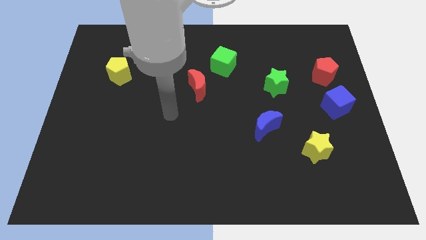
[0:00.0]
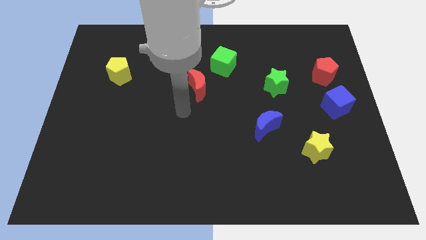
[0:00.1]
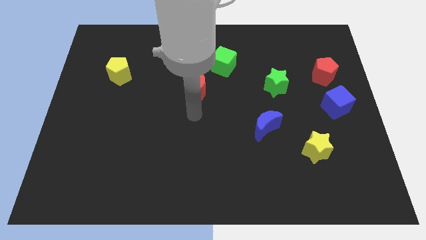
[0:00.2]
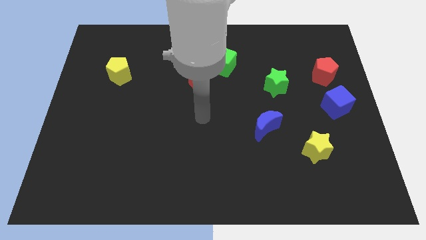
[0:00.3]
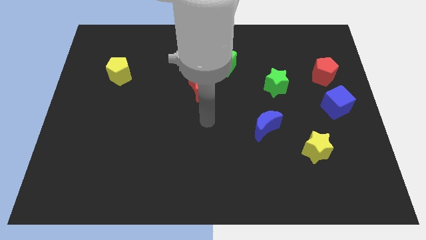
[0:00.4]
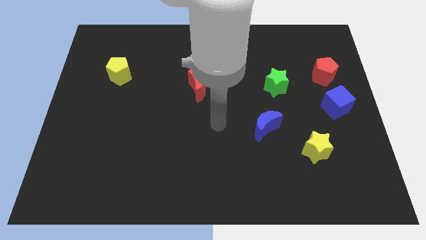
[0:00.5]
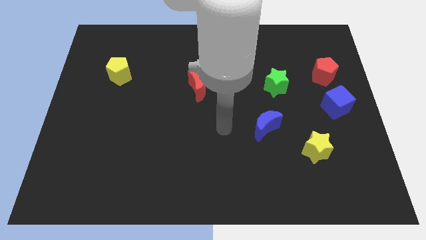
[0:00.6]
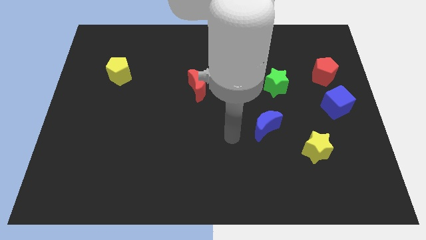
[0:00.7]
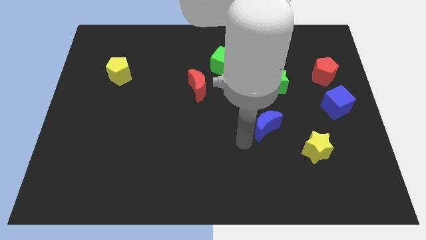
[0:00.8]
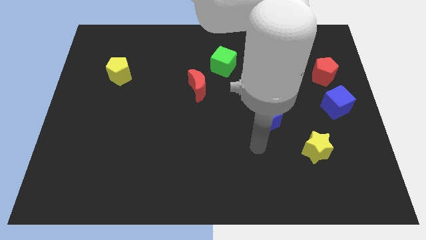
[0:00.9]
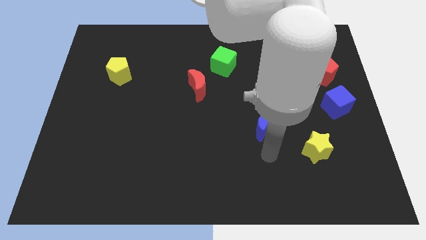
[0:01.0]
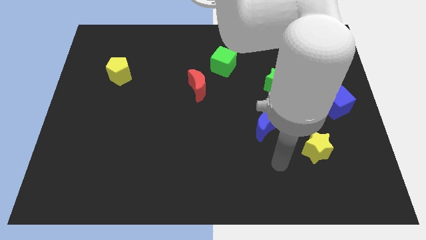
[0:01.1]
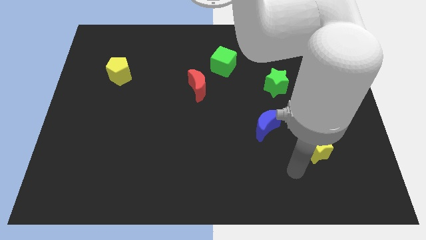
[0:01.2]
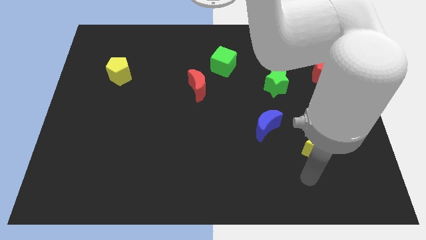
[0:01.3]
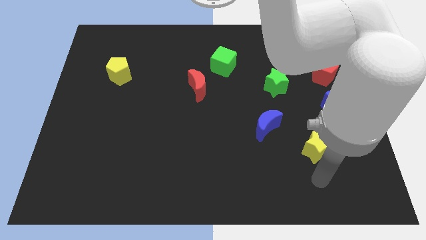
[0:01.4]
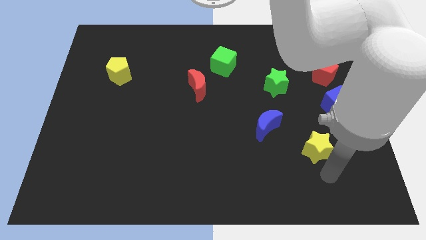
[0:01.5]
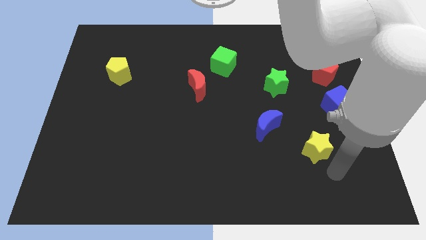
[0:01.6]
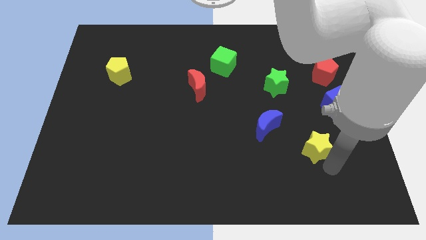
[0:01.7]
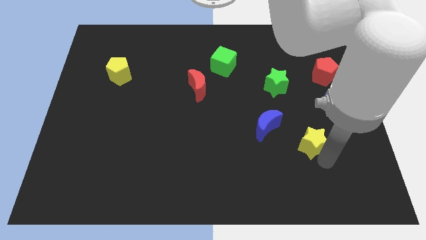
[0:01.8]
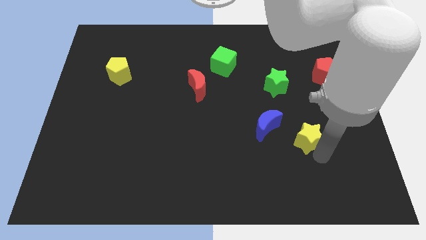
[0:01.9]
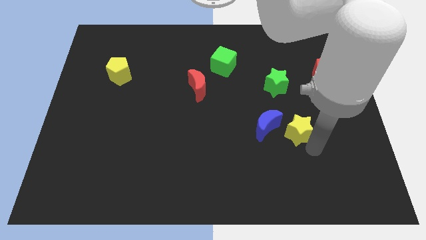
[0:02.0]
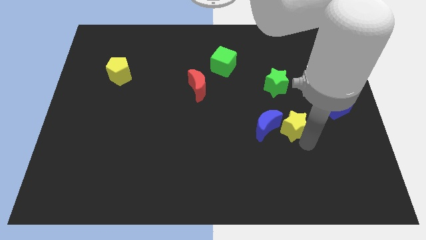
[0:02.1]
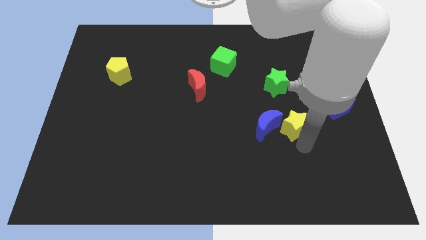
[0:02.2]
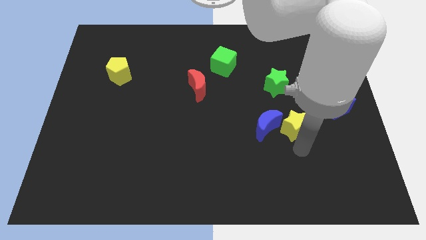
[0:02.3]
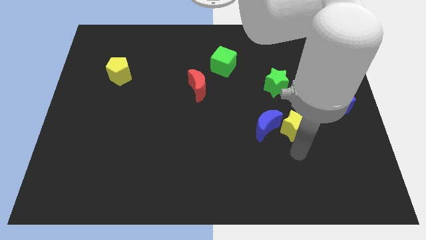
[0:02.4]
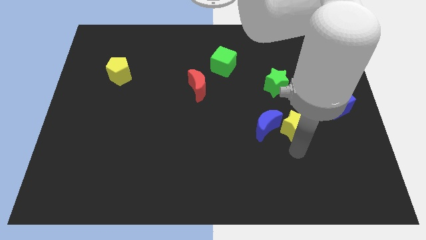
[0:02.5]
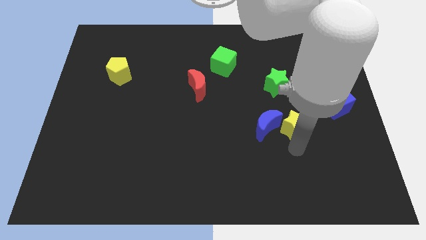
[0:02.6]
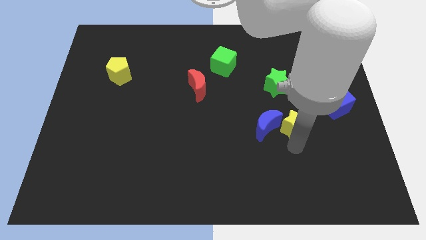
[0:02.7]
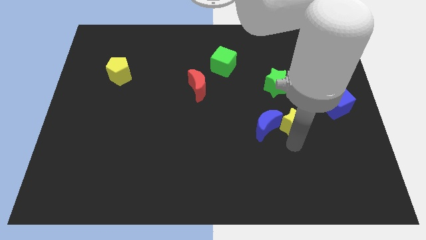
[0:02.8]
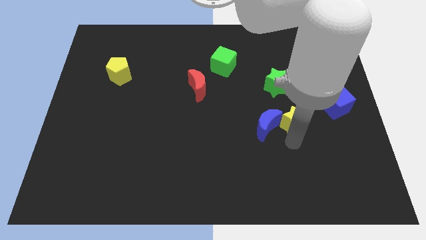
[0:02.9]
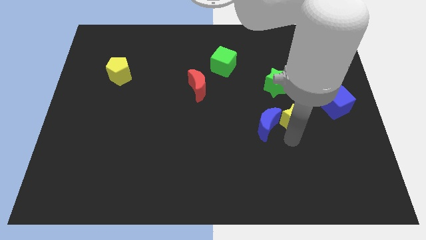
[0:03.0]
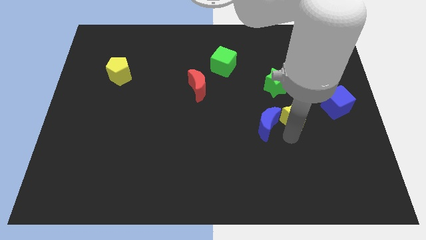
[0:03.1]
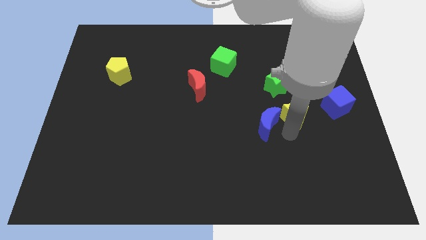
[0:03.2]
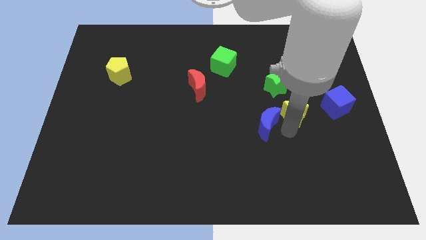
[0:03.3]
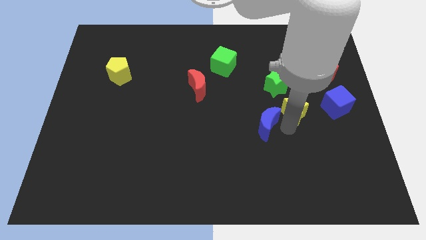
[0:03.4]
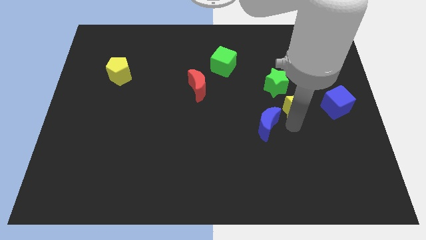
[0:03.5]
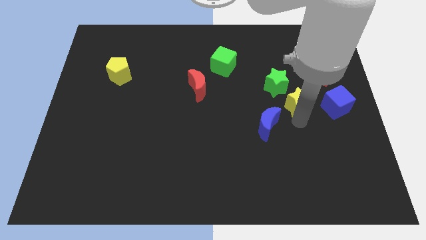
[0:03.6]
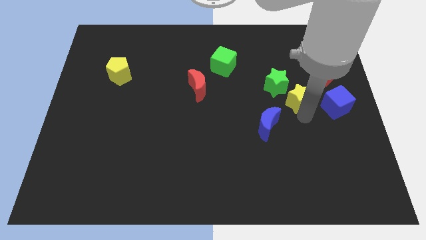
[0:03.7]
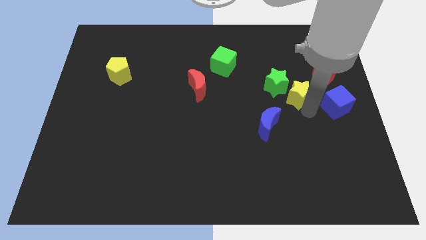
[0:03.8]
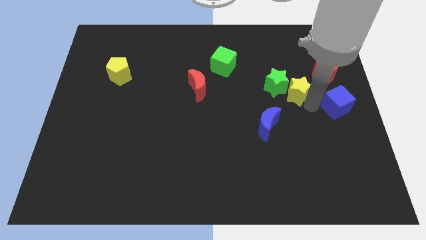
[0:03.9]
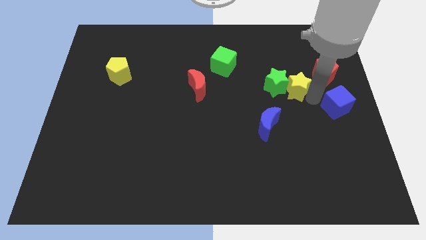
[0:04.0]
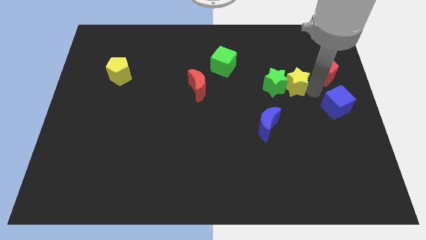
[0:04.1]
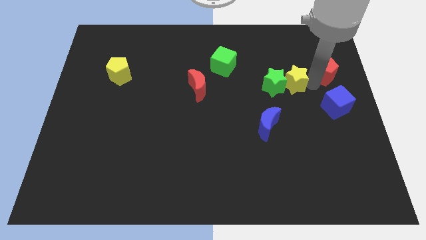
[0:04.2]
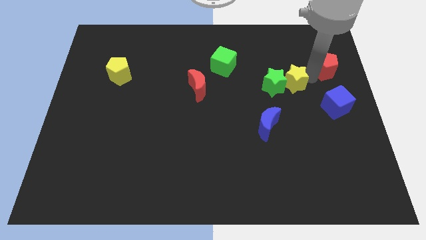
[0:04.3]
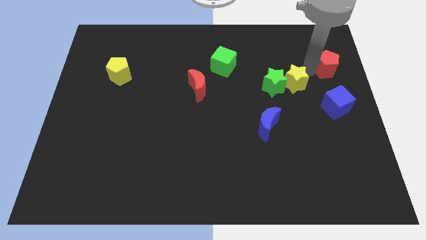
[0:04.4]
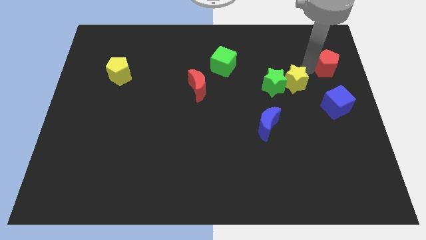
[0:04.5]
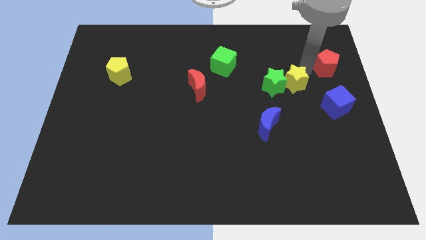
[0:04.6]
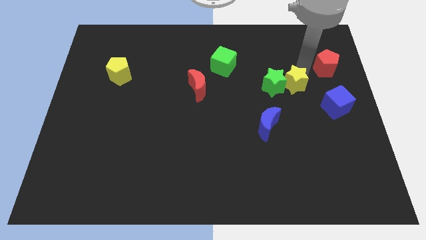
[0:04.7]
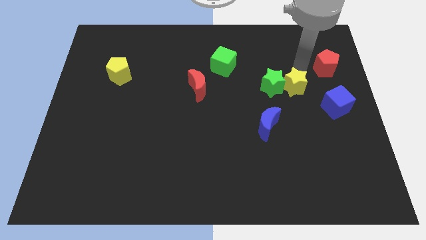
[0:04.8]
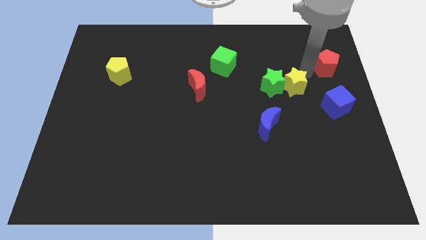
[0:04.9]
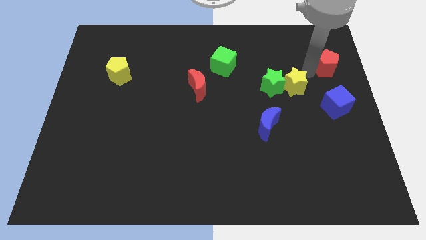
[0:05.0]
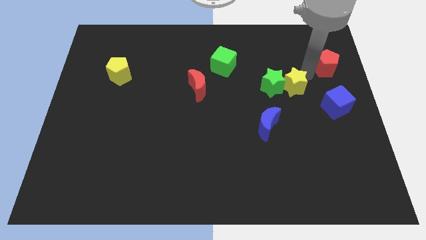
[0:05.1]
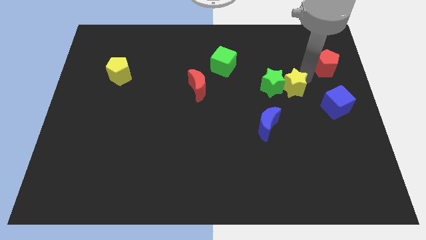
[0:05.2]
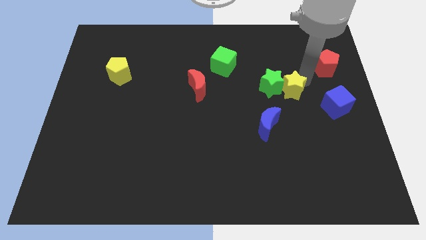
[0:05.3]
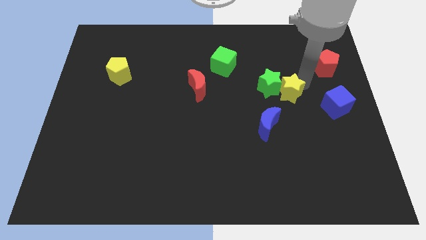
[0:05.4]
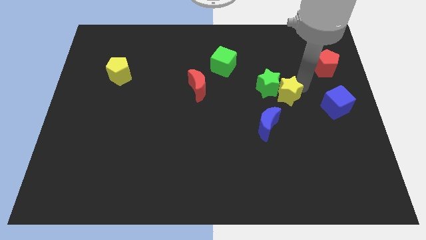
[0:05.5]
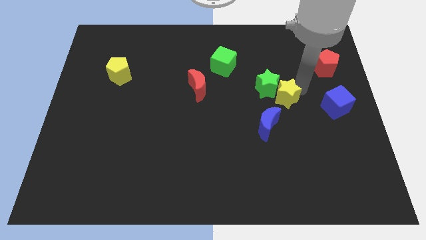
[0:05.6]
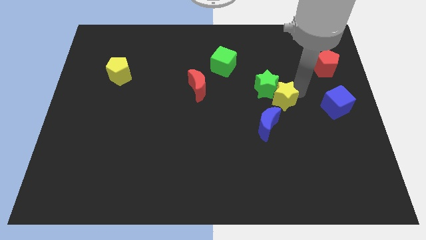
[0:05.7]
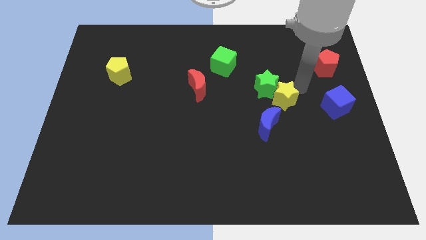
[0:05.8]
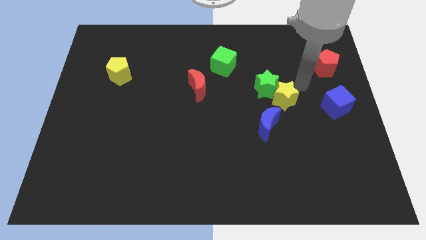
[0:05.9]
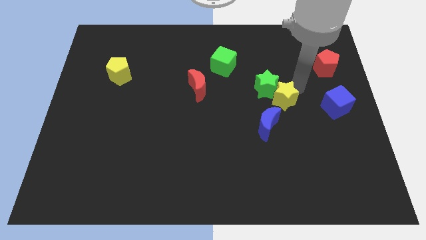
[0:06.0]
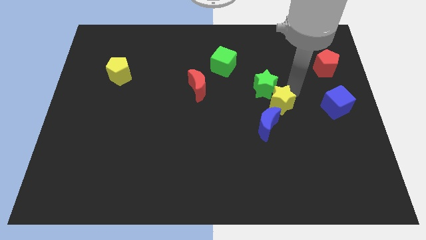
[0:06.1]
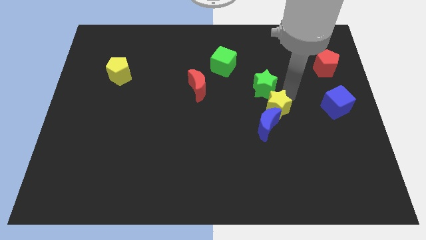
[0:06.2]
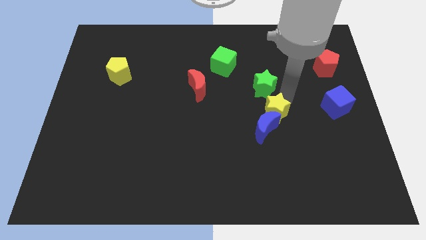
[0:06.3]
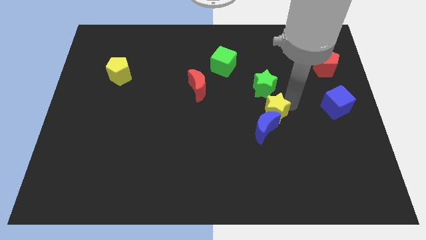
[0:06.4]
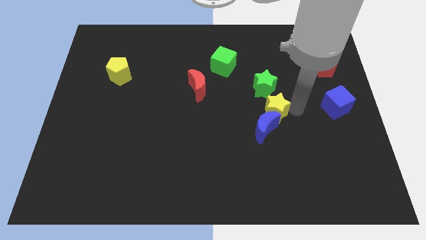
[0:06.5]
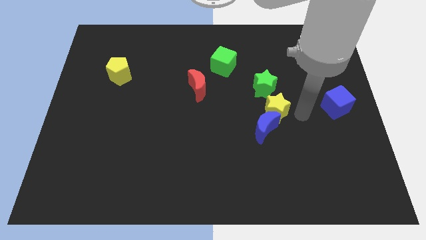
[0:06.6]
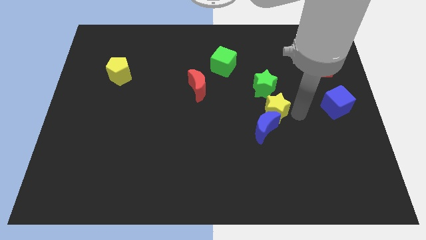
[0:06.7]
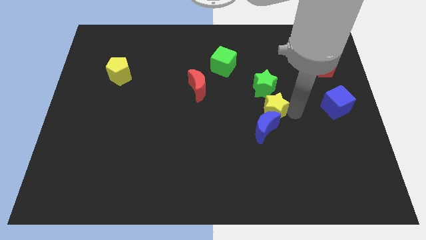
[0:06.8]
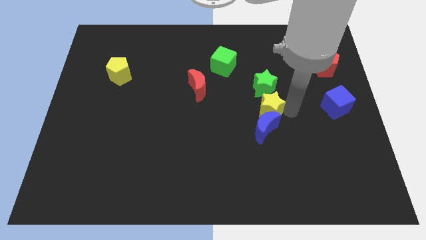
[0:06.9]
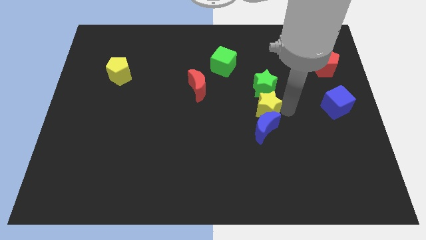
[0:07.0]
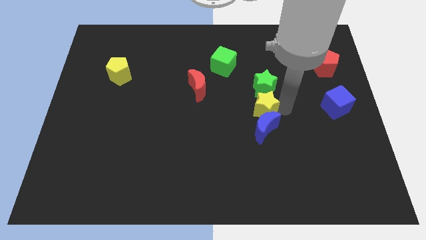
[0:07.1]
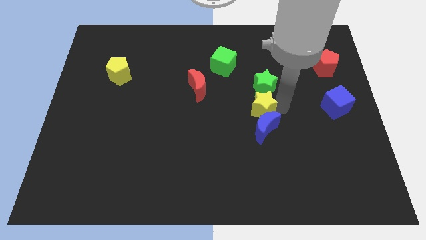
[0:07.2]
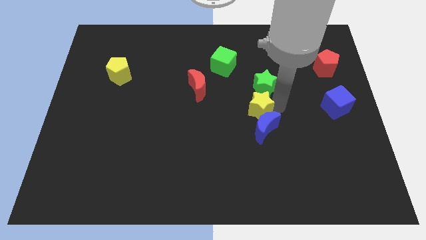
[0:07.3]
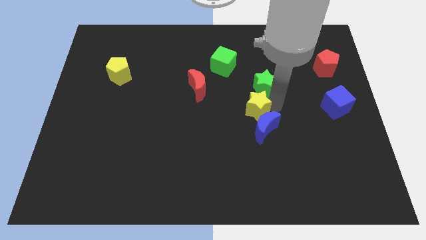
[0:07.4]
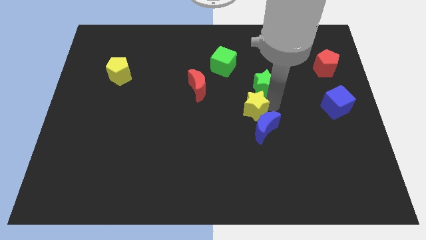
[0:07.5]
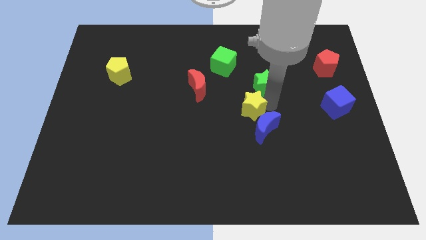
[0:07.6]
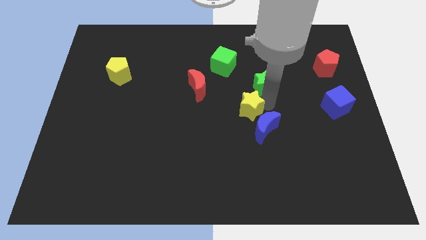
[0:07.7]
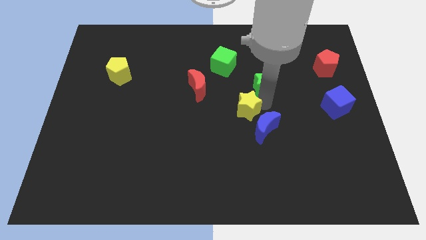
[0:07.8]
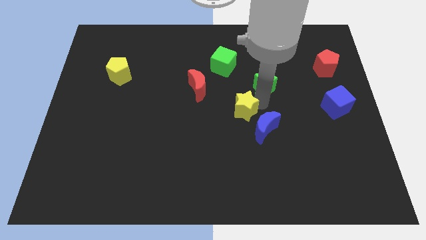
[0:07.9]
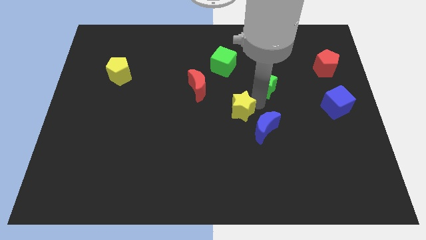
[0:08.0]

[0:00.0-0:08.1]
slide the yellow star to the bottom right of the red moon
